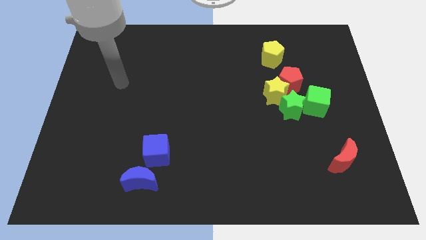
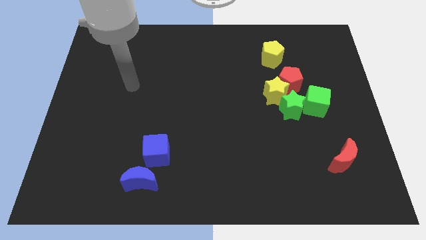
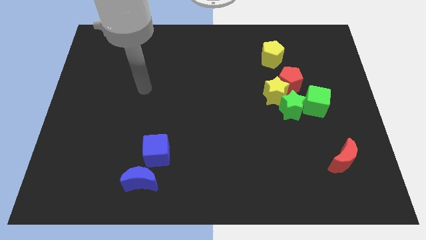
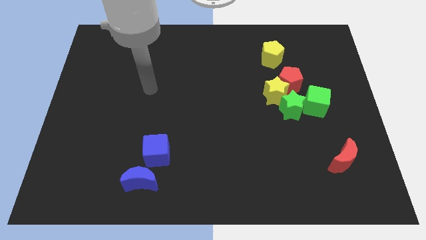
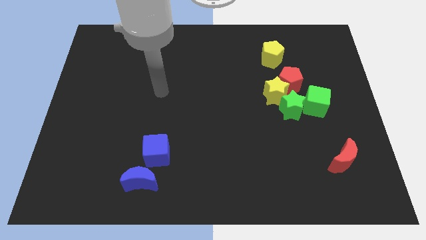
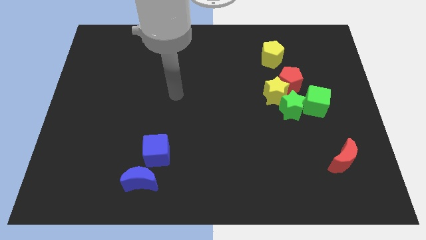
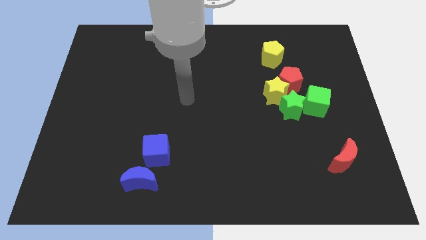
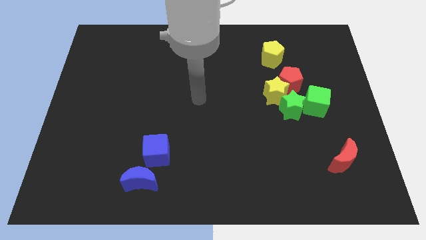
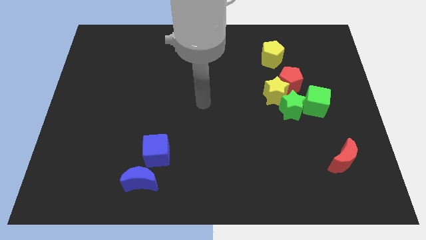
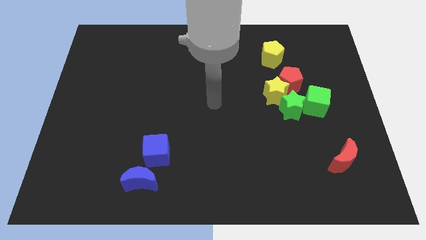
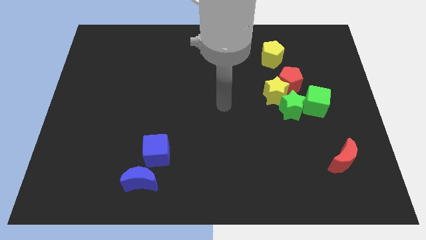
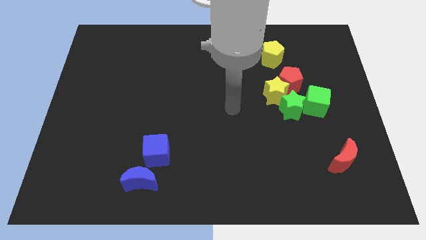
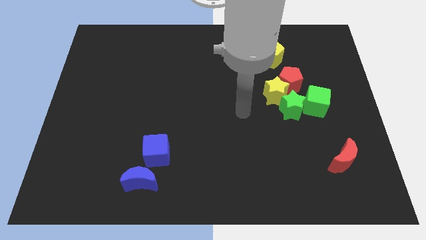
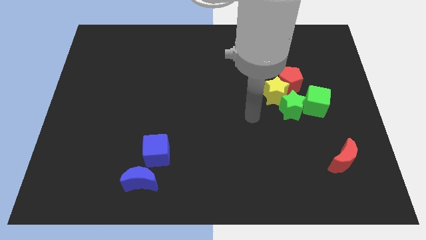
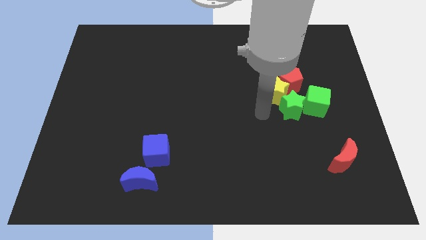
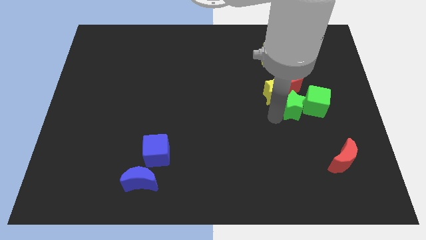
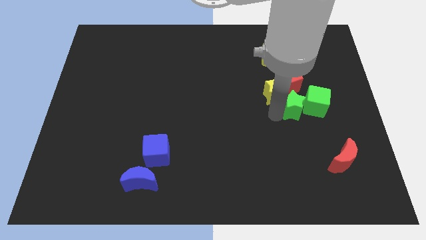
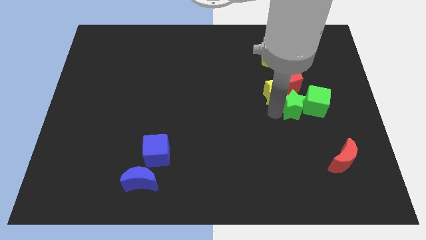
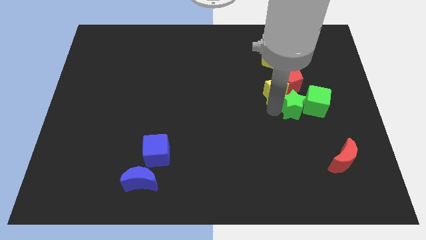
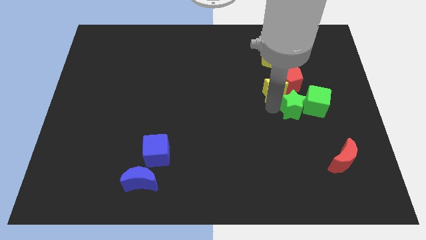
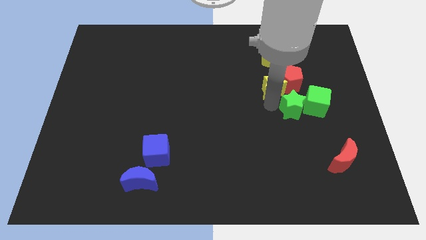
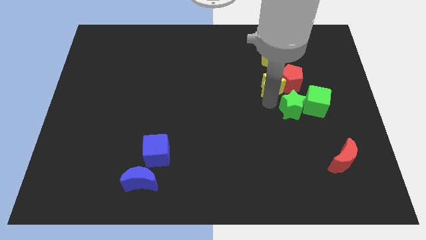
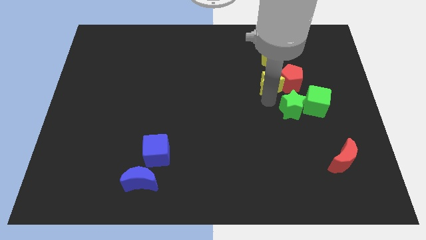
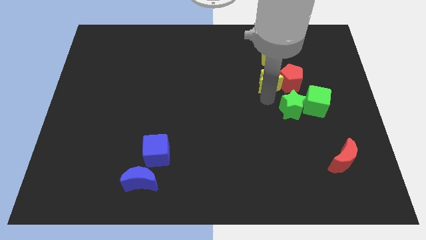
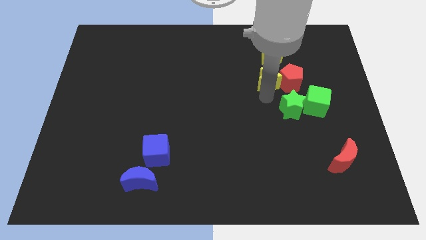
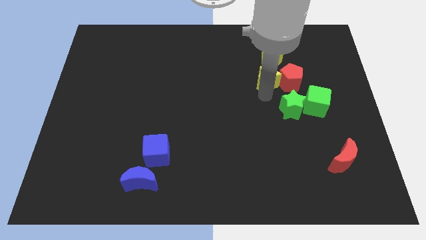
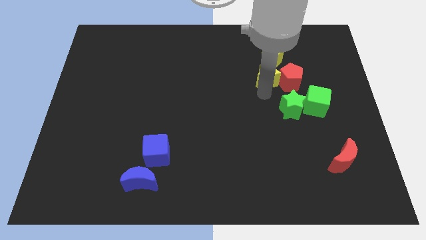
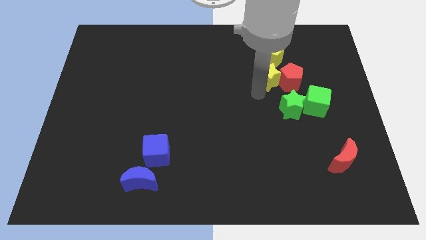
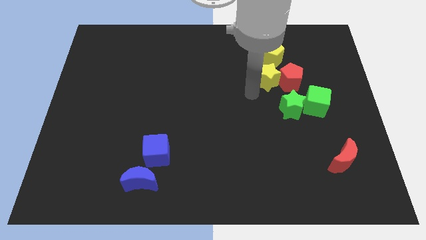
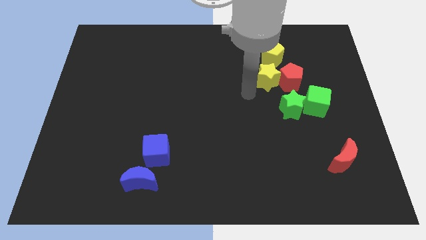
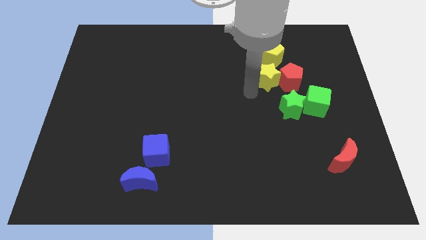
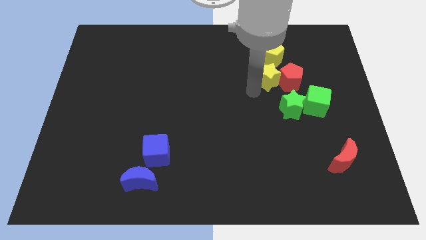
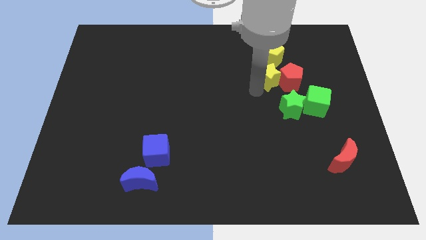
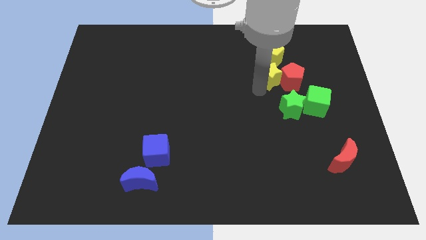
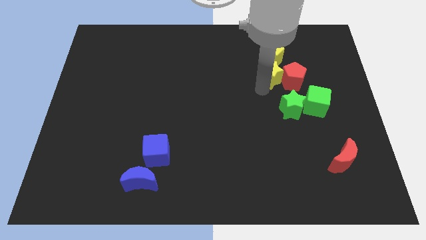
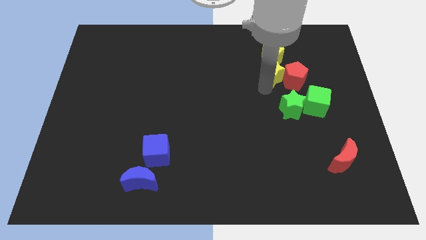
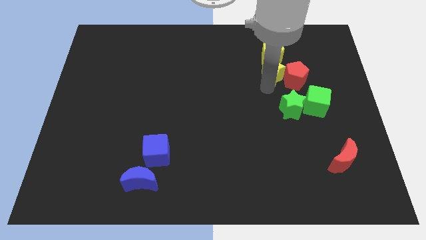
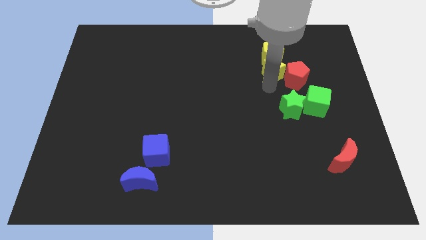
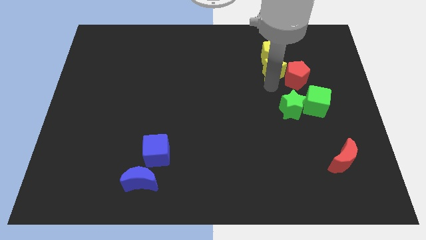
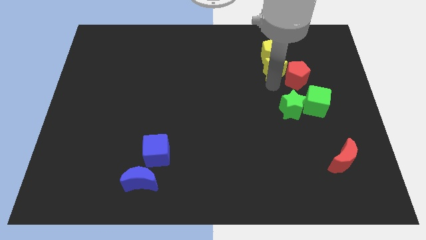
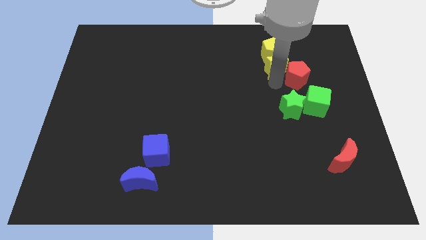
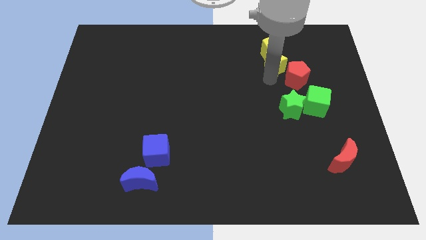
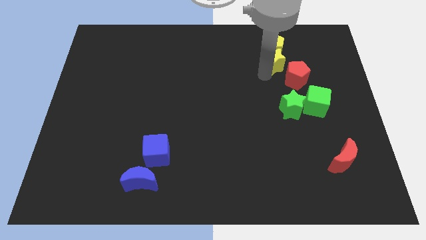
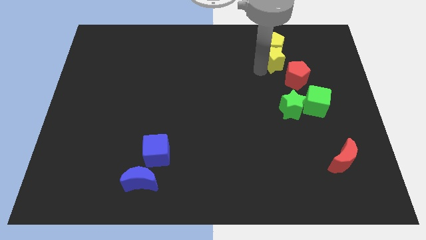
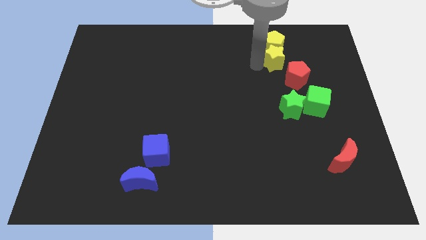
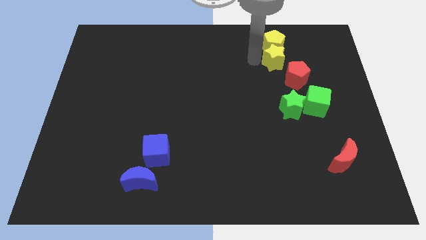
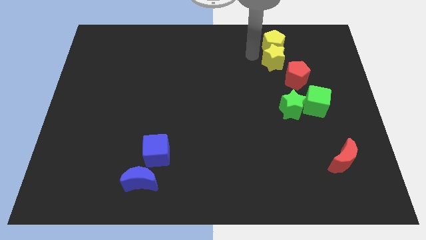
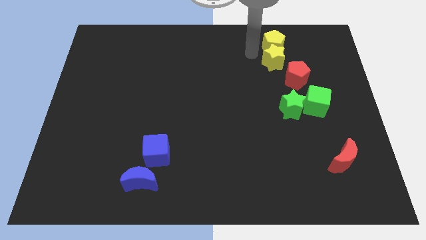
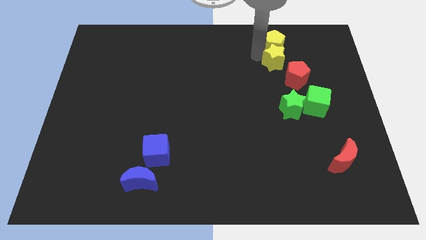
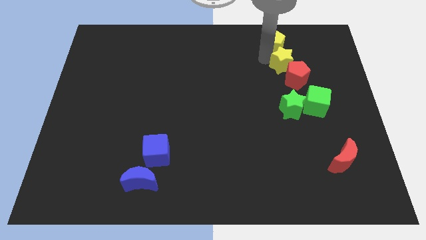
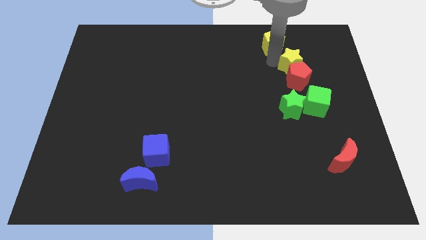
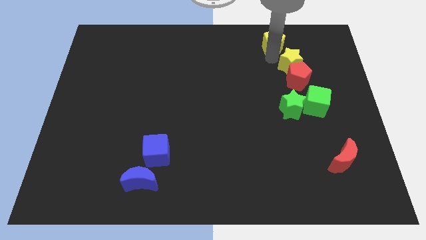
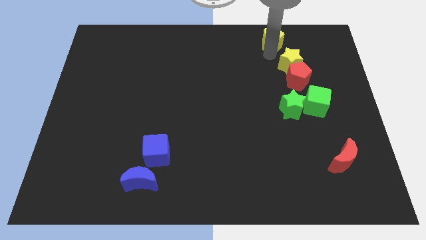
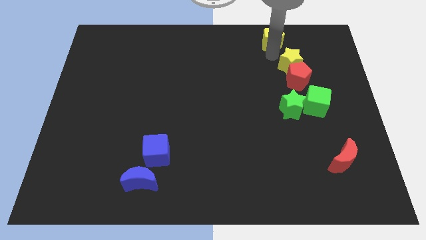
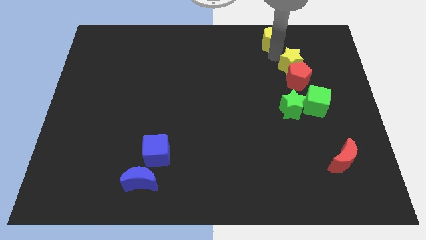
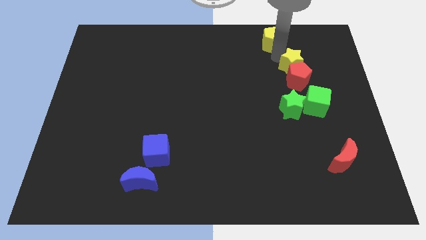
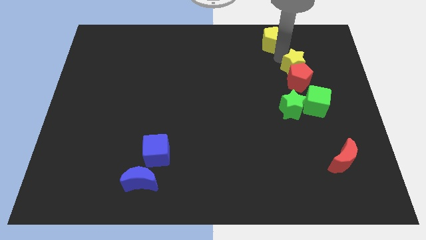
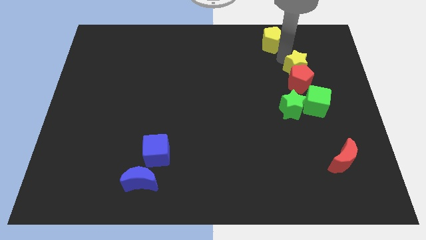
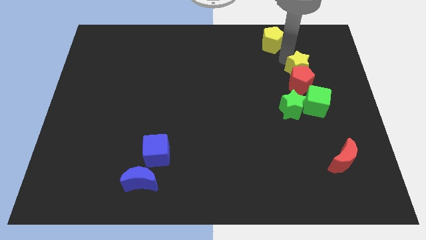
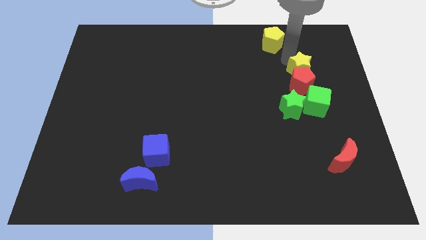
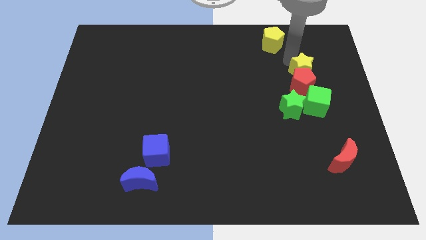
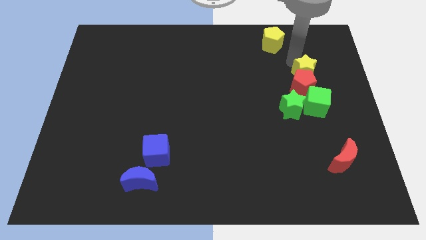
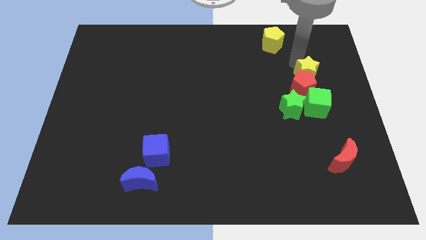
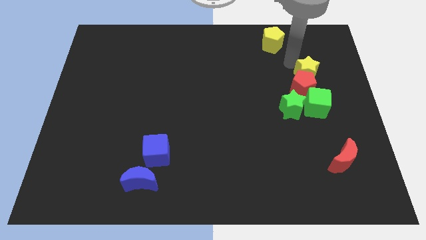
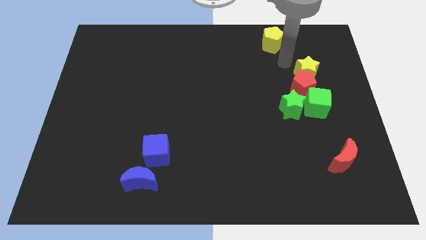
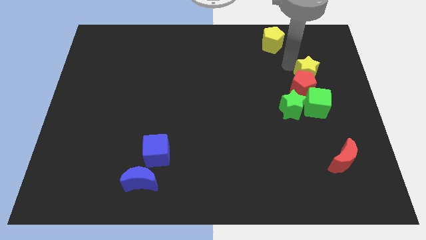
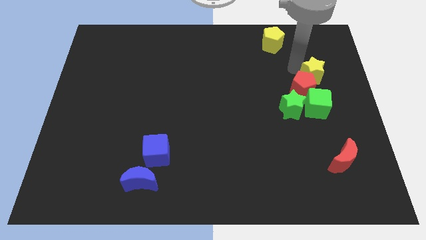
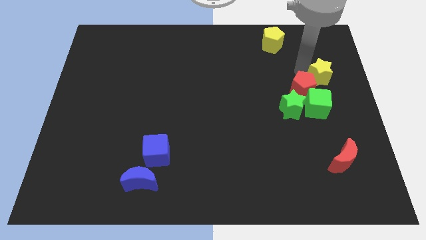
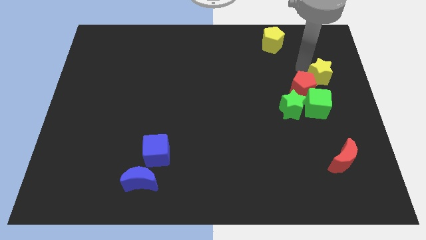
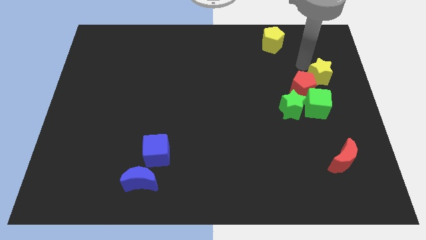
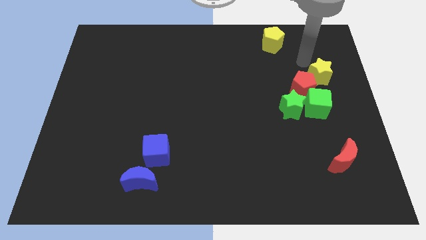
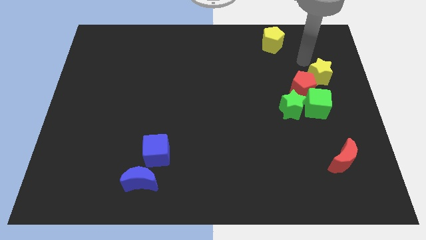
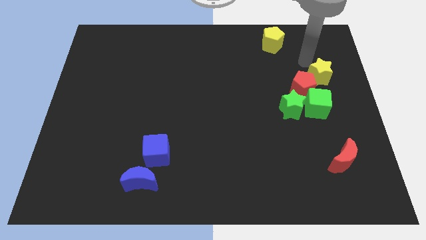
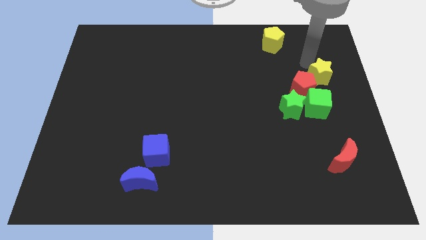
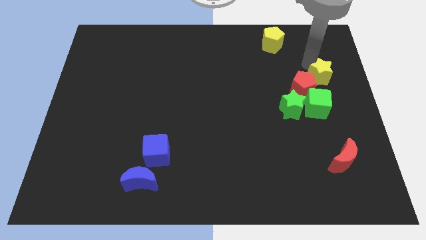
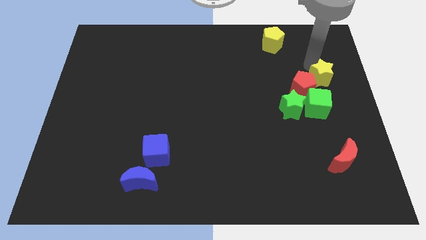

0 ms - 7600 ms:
push the yellow star to the center right
